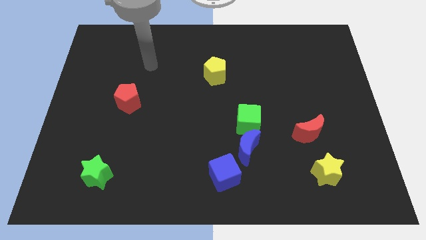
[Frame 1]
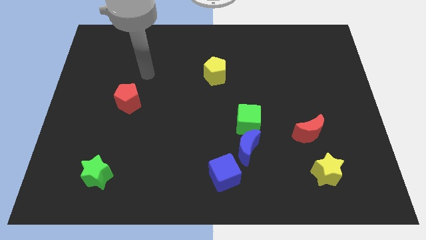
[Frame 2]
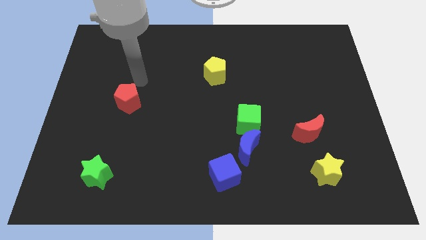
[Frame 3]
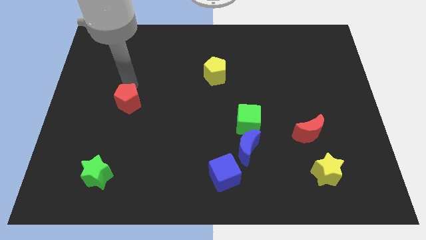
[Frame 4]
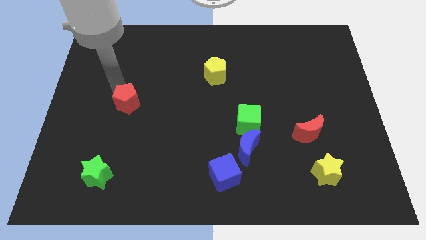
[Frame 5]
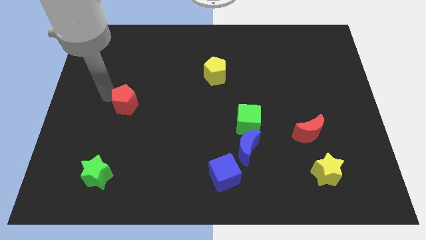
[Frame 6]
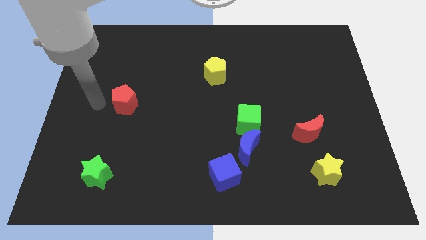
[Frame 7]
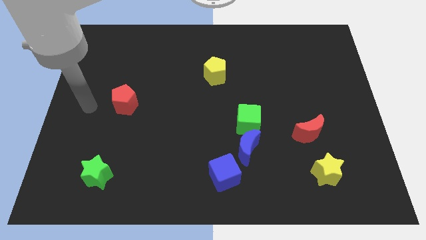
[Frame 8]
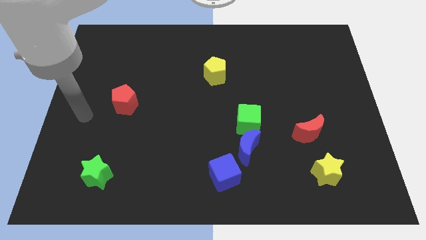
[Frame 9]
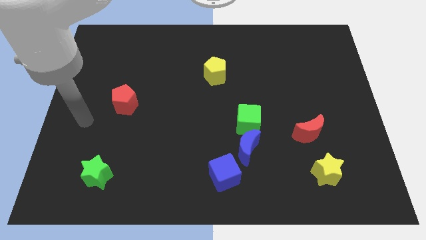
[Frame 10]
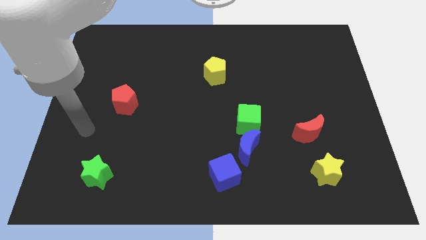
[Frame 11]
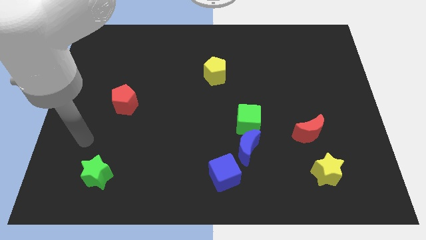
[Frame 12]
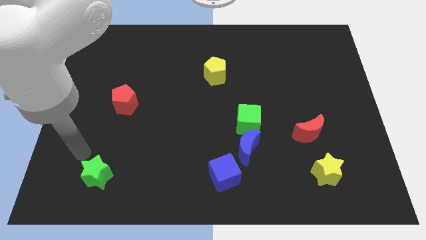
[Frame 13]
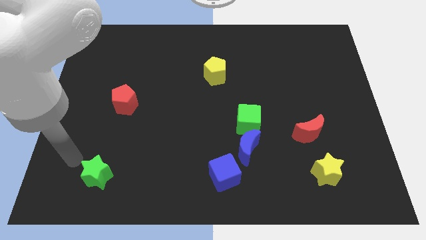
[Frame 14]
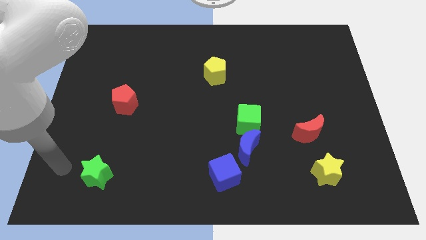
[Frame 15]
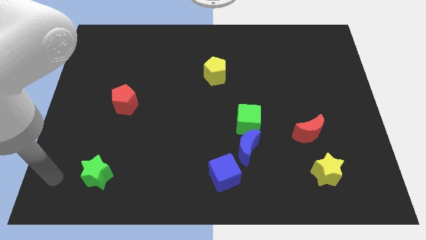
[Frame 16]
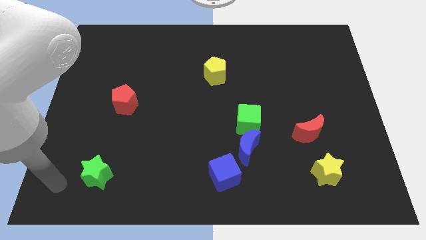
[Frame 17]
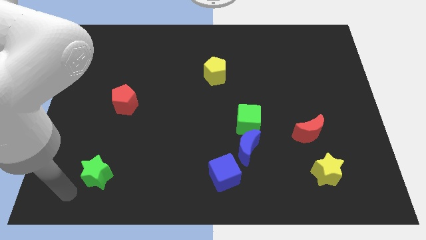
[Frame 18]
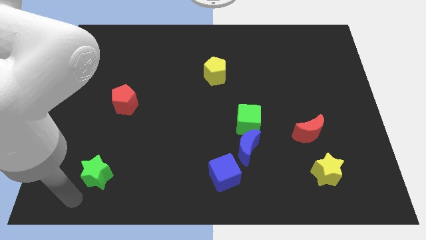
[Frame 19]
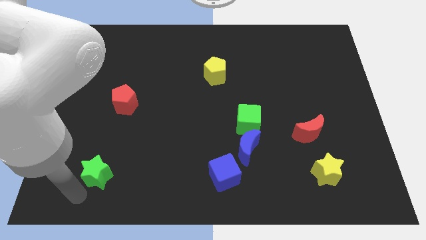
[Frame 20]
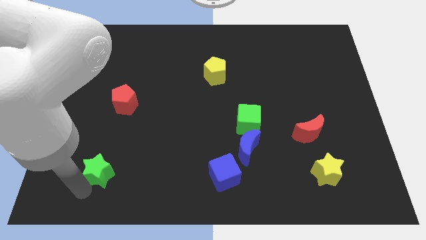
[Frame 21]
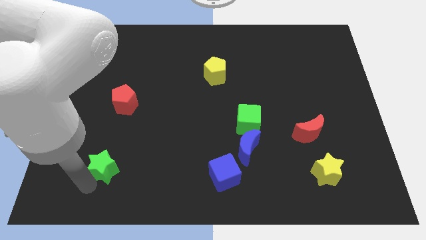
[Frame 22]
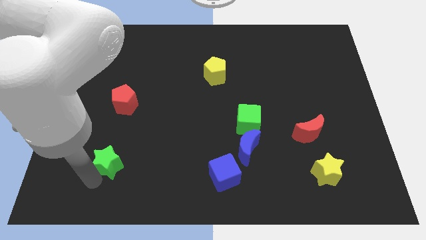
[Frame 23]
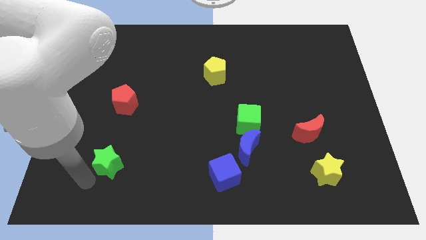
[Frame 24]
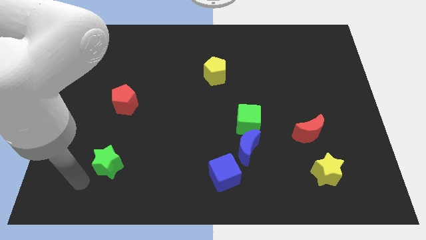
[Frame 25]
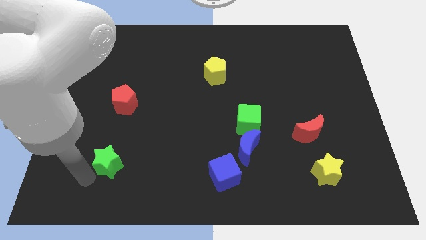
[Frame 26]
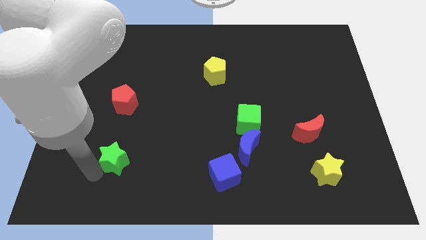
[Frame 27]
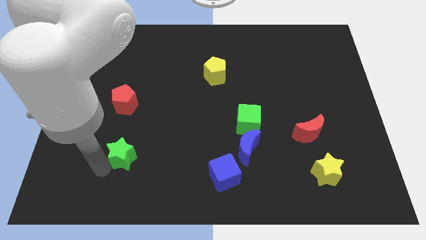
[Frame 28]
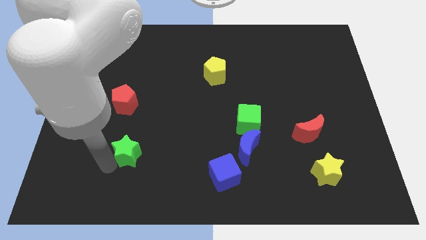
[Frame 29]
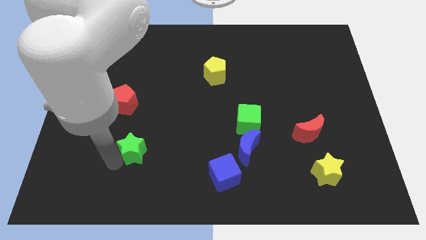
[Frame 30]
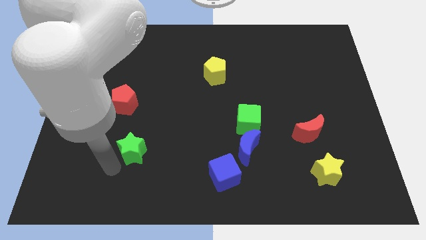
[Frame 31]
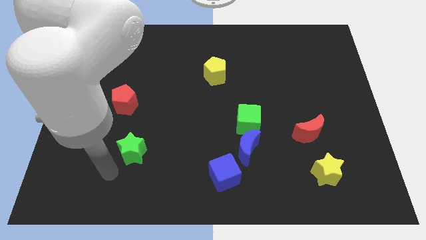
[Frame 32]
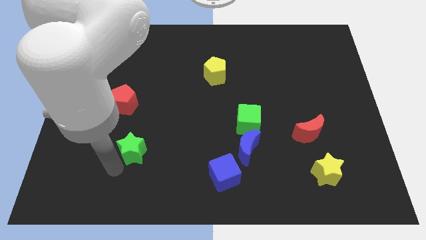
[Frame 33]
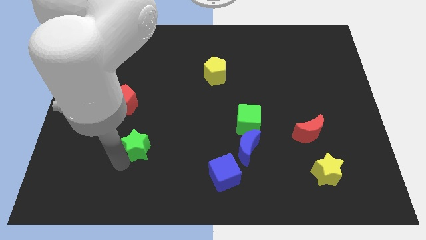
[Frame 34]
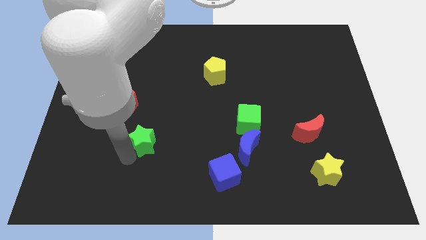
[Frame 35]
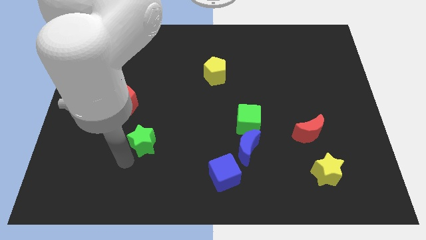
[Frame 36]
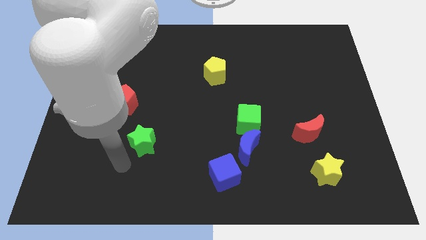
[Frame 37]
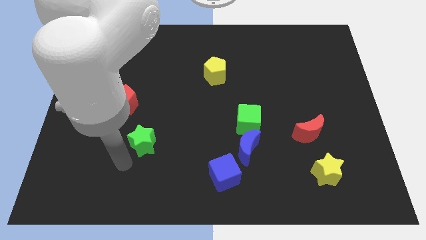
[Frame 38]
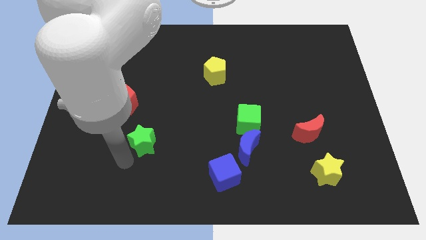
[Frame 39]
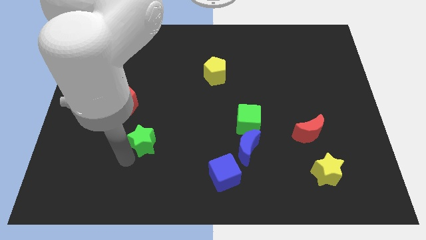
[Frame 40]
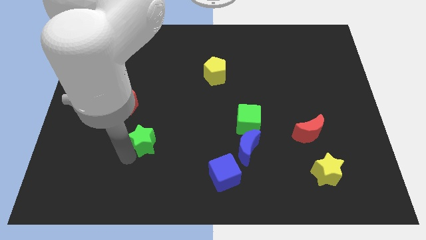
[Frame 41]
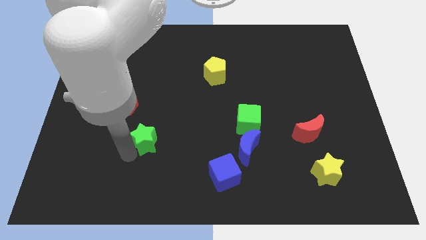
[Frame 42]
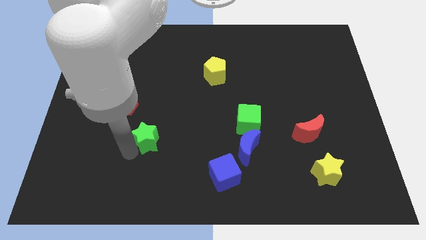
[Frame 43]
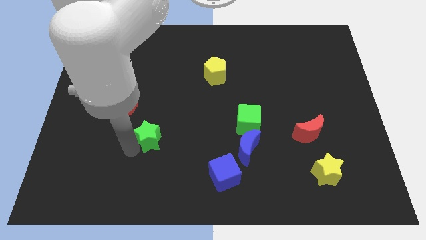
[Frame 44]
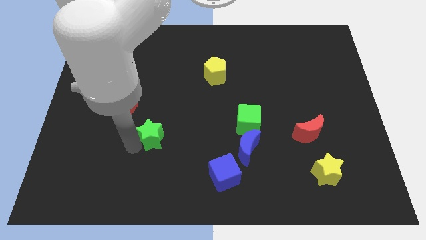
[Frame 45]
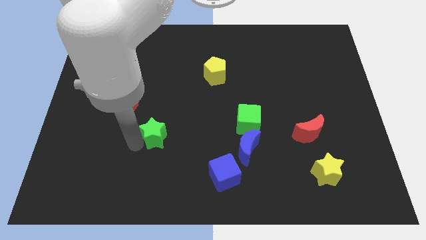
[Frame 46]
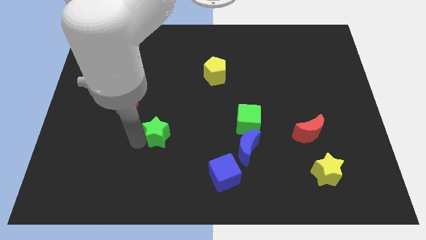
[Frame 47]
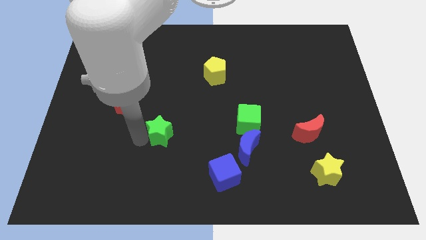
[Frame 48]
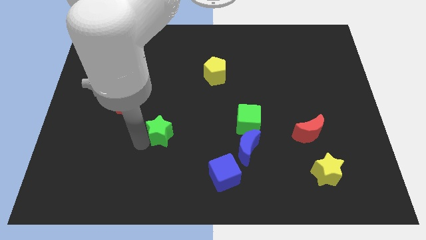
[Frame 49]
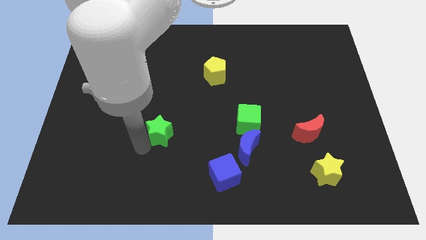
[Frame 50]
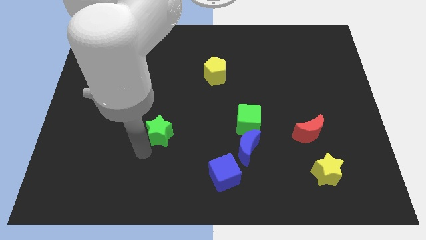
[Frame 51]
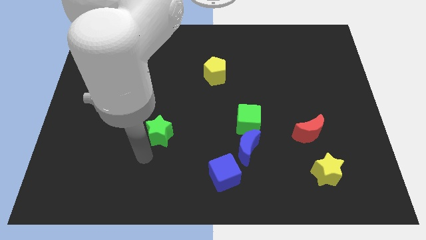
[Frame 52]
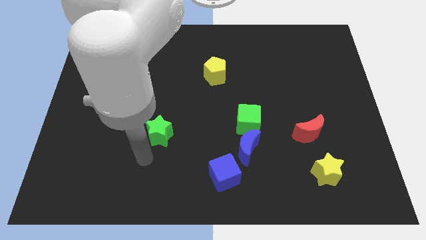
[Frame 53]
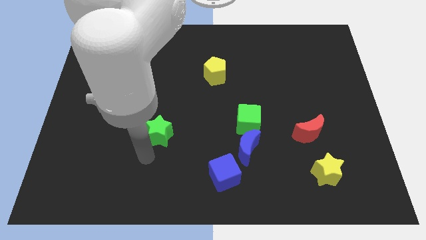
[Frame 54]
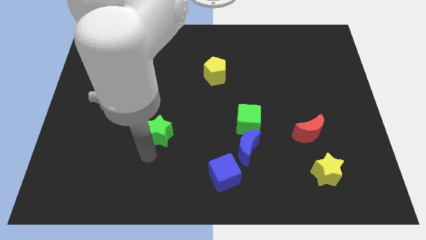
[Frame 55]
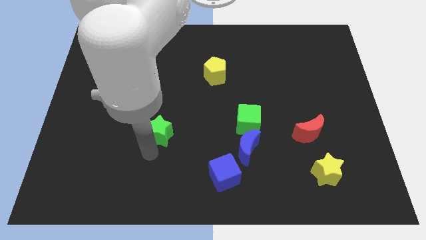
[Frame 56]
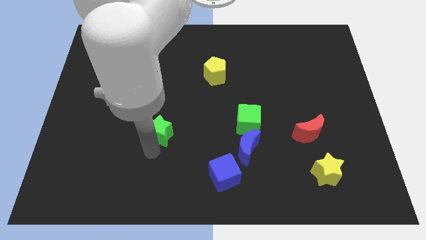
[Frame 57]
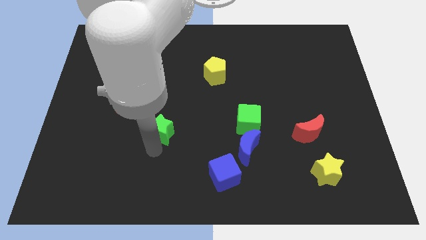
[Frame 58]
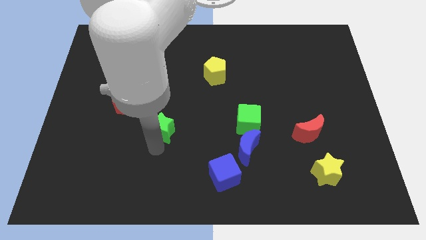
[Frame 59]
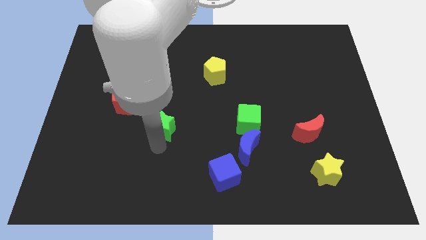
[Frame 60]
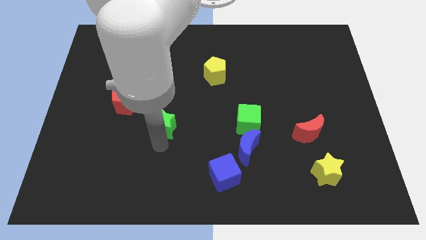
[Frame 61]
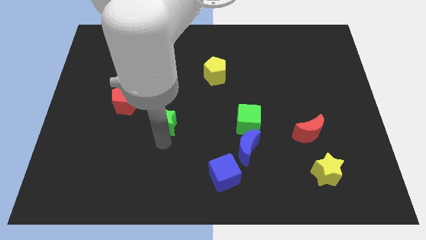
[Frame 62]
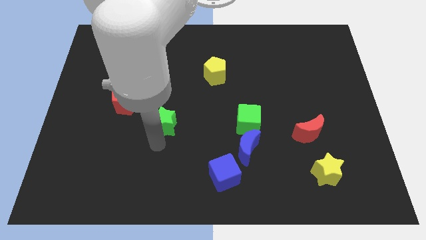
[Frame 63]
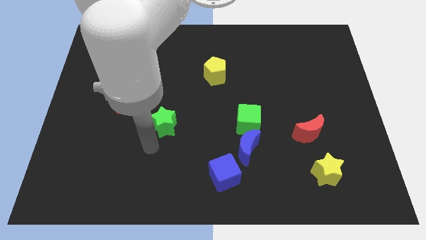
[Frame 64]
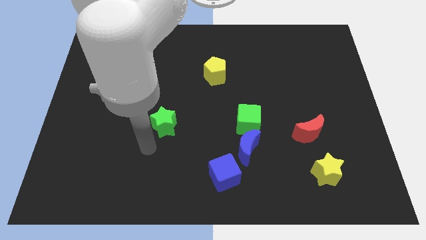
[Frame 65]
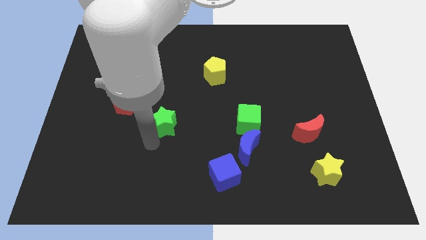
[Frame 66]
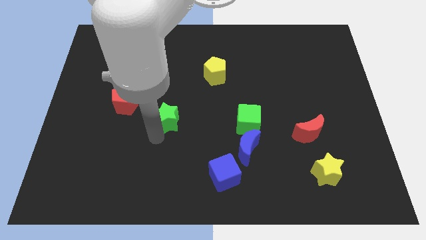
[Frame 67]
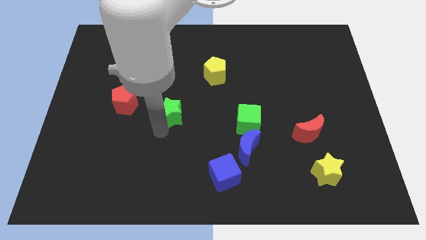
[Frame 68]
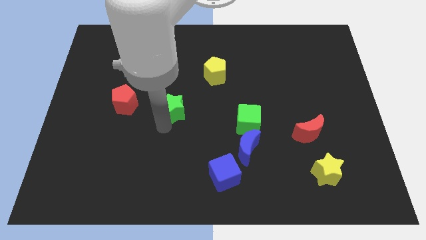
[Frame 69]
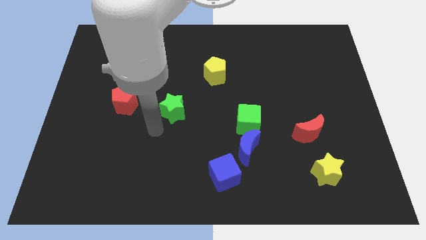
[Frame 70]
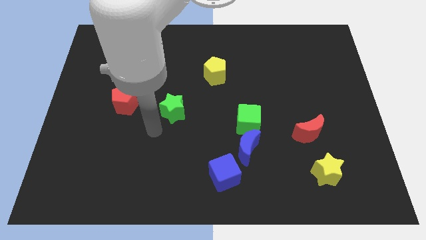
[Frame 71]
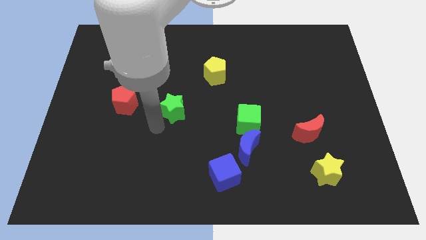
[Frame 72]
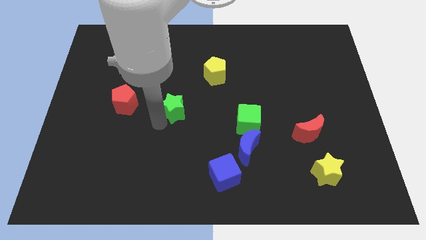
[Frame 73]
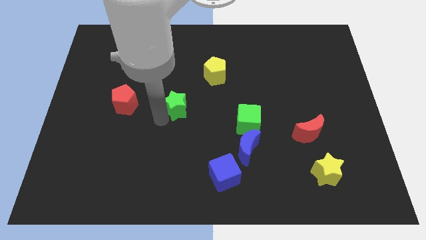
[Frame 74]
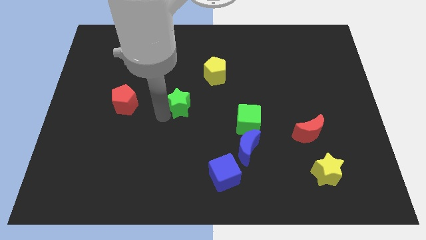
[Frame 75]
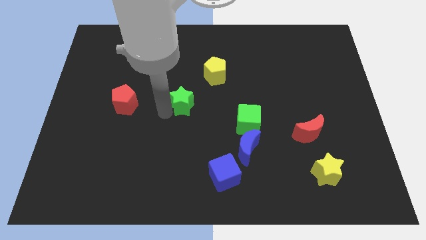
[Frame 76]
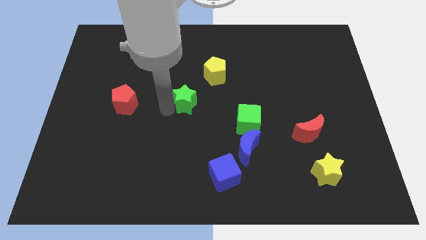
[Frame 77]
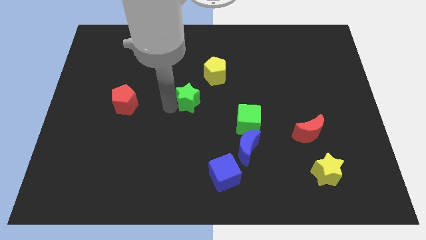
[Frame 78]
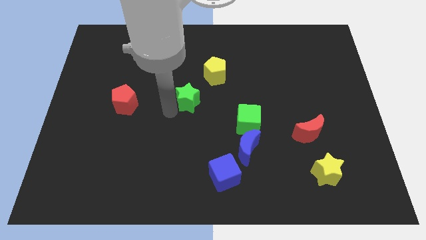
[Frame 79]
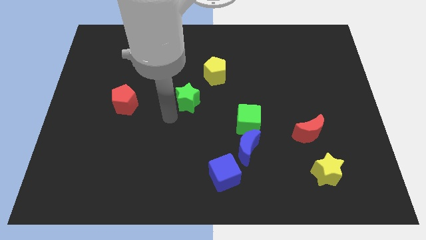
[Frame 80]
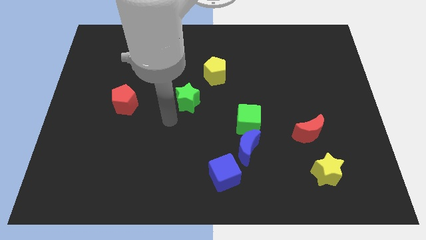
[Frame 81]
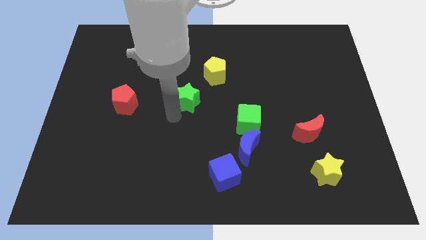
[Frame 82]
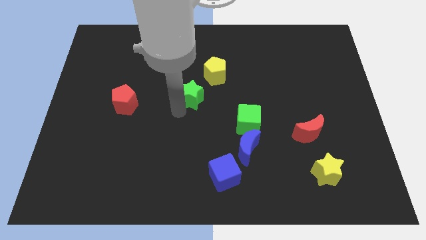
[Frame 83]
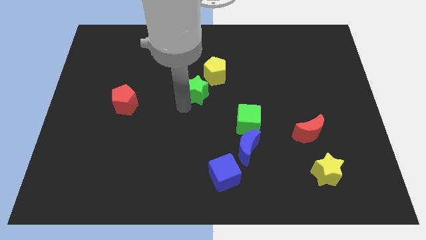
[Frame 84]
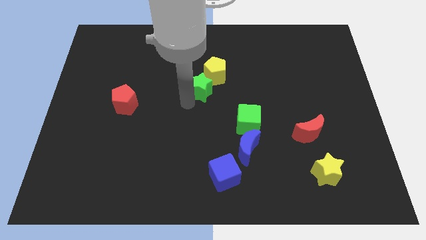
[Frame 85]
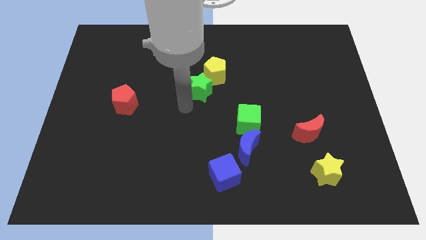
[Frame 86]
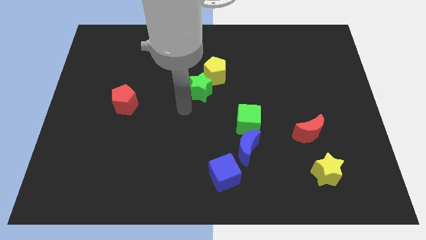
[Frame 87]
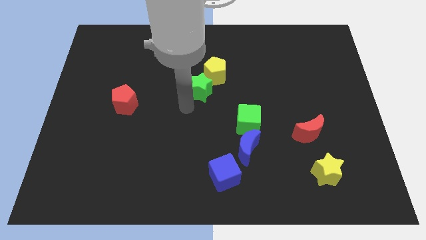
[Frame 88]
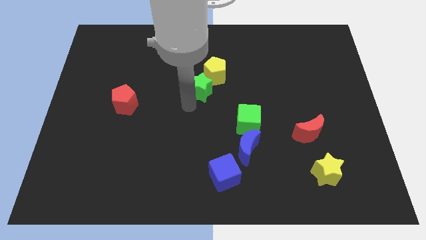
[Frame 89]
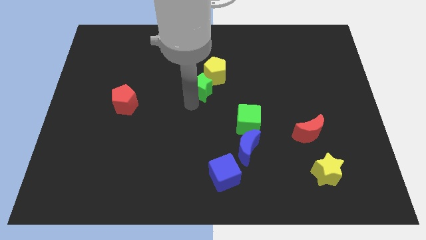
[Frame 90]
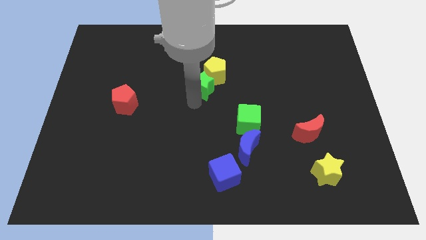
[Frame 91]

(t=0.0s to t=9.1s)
push the green star close to the yellow pentagon
